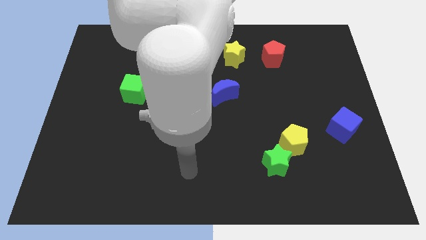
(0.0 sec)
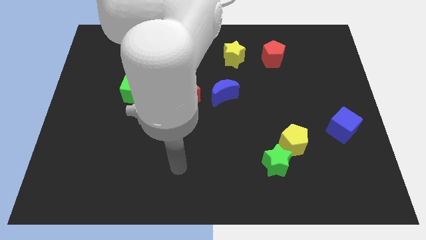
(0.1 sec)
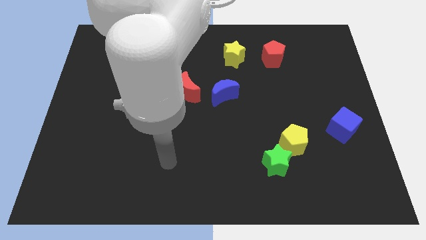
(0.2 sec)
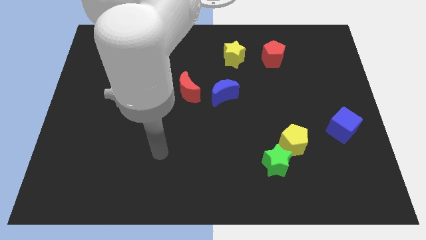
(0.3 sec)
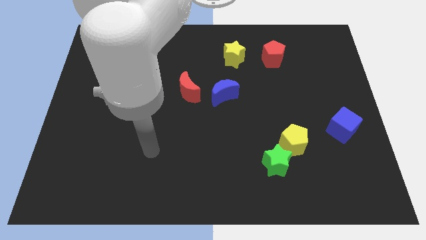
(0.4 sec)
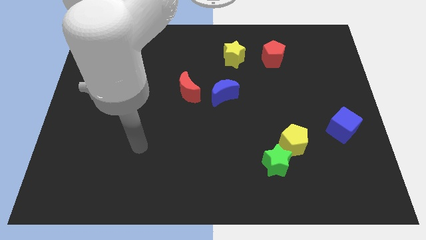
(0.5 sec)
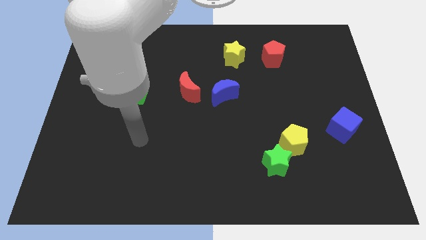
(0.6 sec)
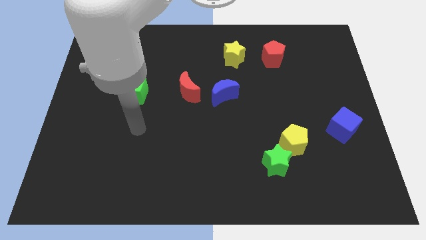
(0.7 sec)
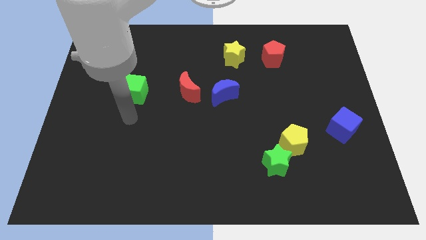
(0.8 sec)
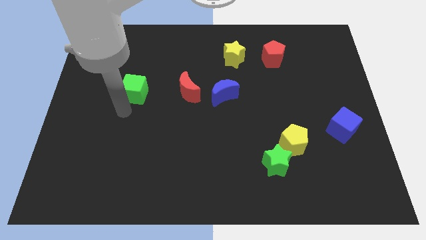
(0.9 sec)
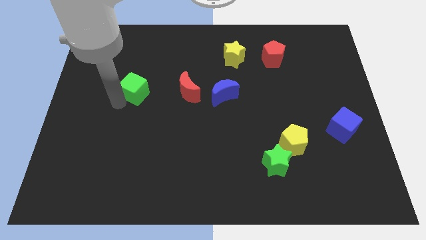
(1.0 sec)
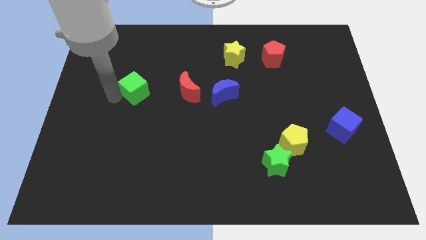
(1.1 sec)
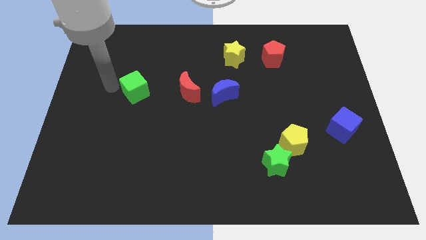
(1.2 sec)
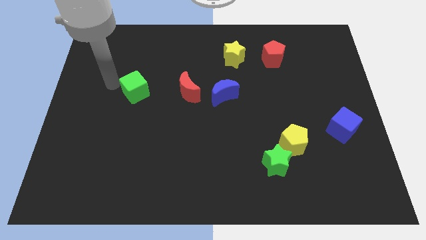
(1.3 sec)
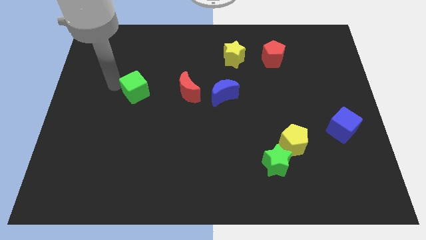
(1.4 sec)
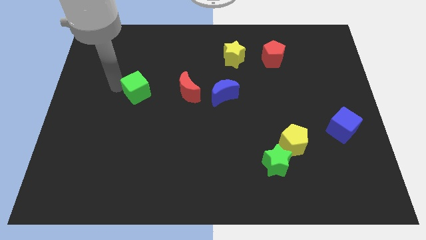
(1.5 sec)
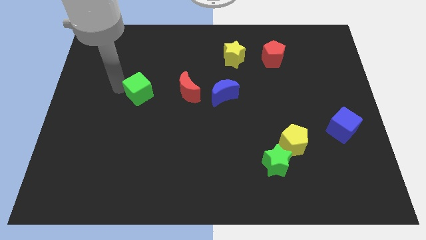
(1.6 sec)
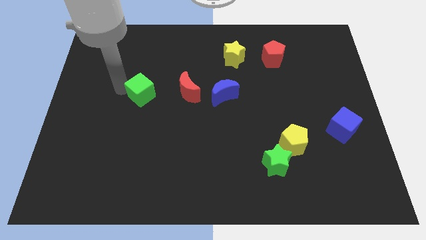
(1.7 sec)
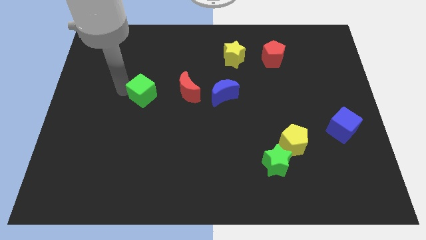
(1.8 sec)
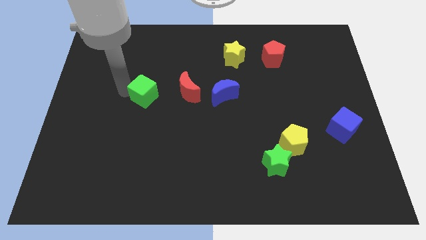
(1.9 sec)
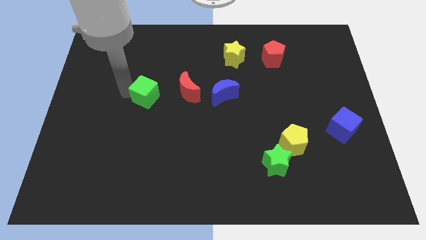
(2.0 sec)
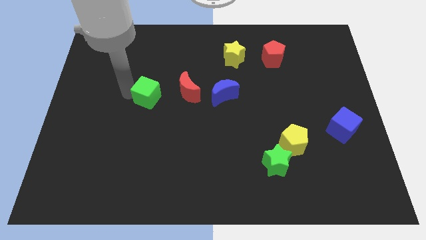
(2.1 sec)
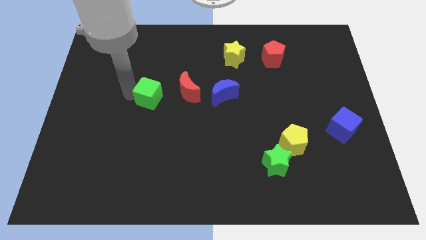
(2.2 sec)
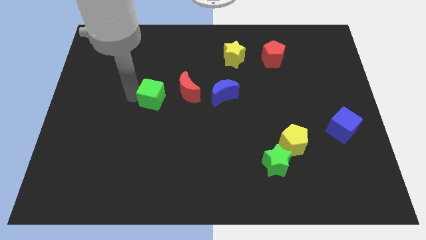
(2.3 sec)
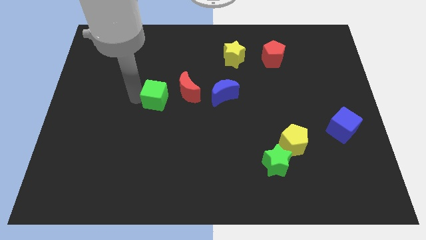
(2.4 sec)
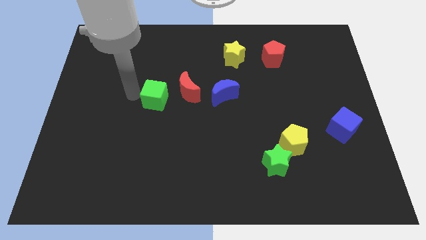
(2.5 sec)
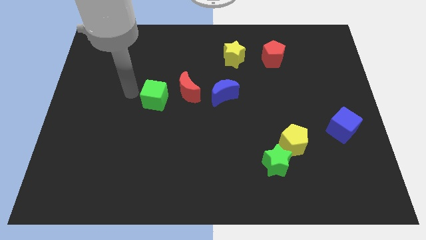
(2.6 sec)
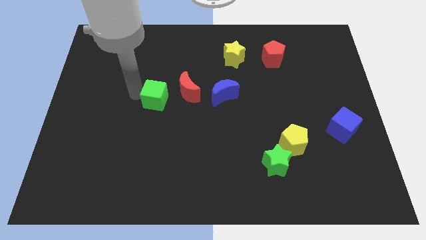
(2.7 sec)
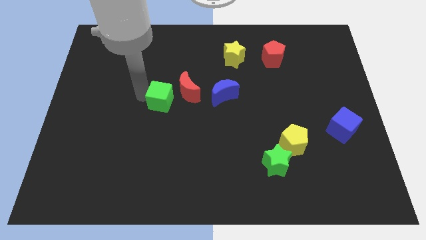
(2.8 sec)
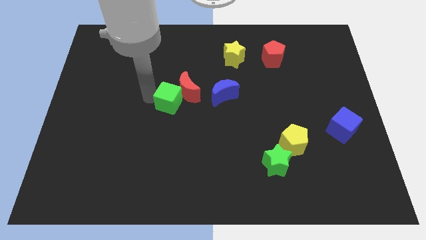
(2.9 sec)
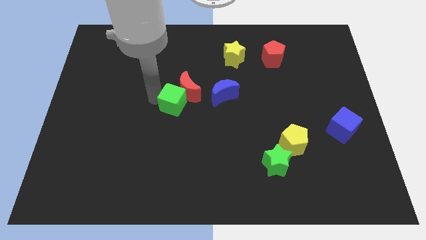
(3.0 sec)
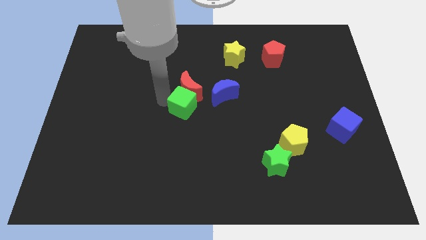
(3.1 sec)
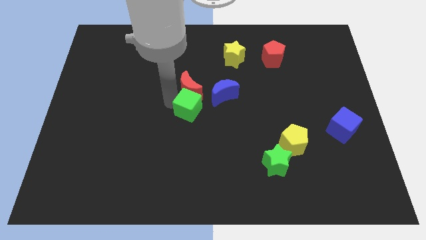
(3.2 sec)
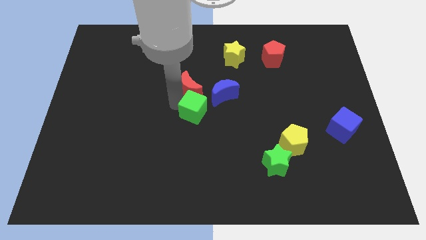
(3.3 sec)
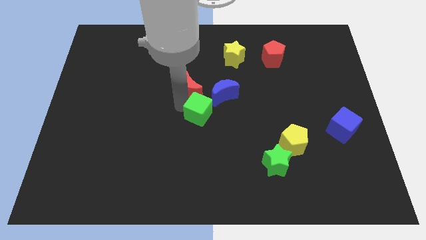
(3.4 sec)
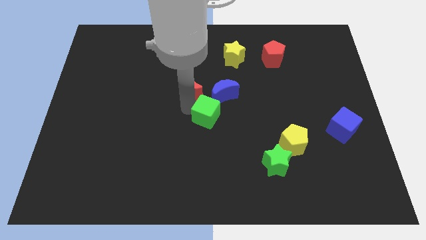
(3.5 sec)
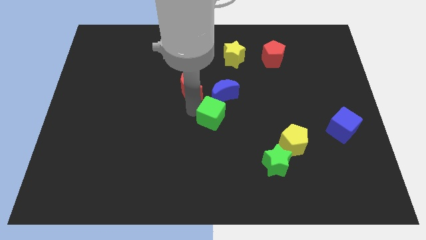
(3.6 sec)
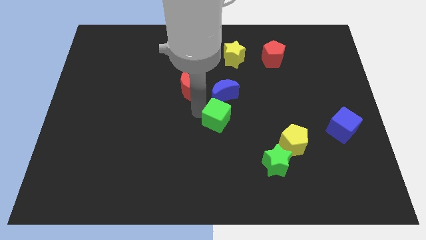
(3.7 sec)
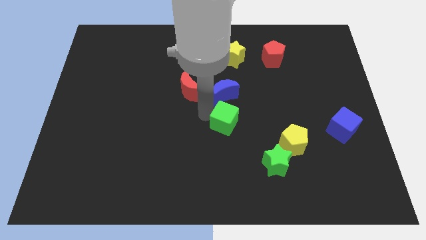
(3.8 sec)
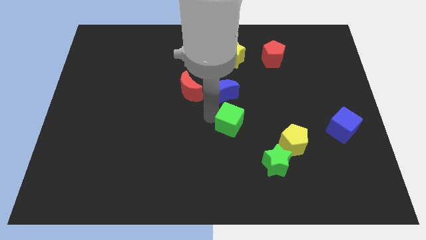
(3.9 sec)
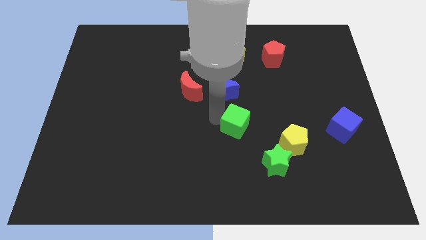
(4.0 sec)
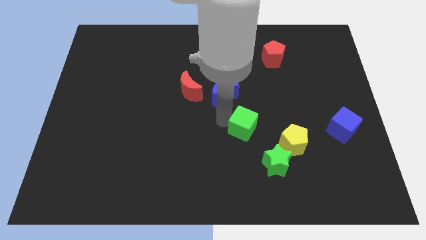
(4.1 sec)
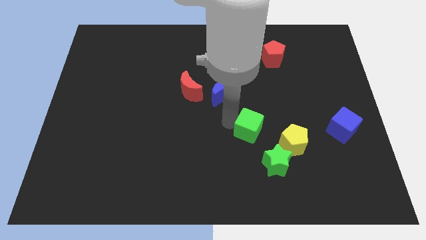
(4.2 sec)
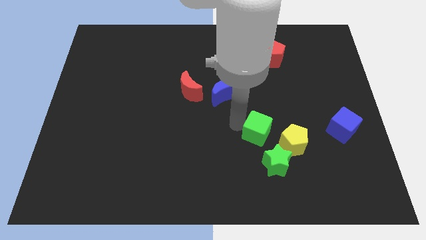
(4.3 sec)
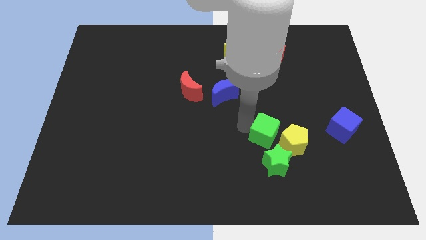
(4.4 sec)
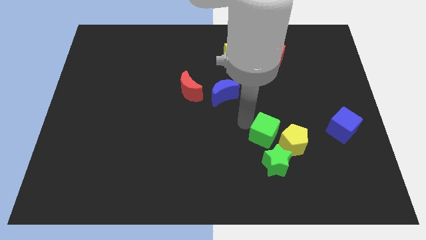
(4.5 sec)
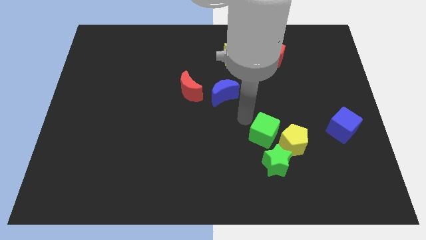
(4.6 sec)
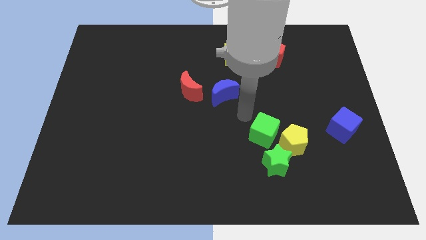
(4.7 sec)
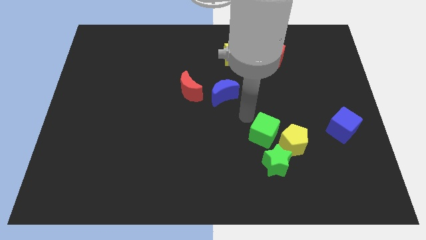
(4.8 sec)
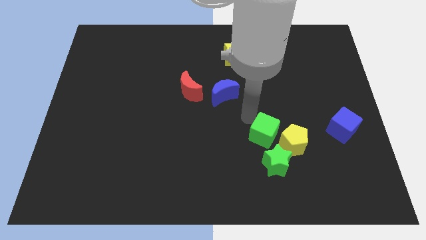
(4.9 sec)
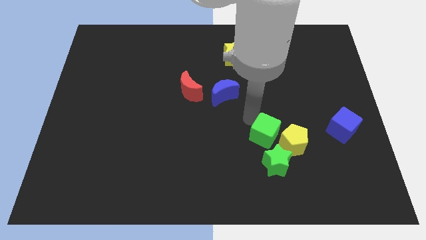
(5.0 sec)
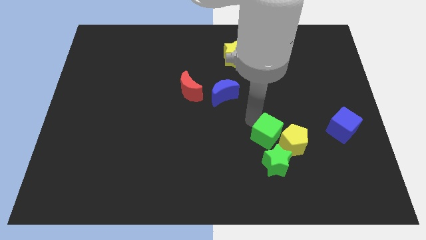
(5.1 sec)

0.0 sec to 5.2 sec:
slide the green cube towards the yellow pentagon

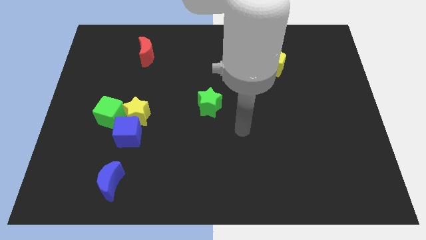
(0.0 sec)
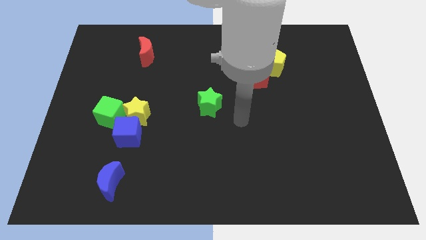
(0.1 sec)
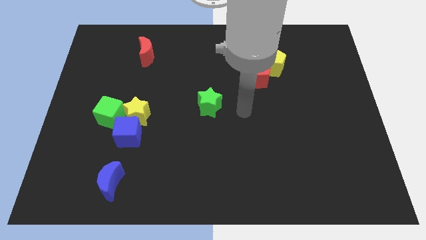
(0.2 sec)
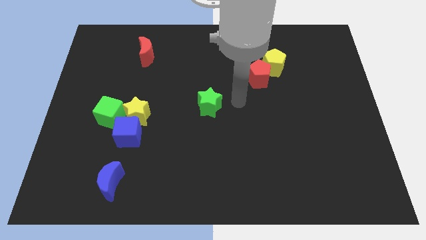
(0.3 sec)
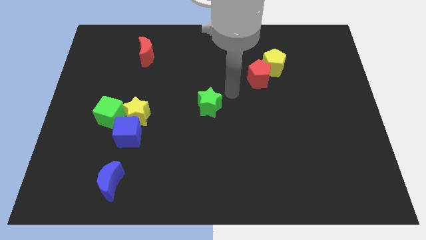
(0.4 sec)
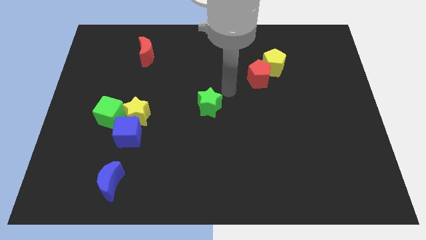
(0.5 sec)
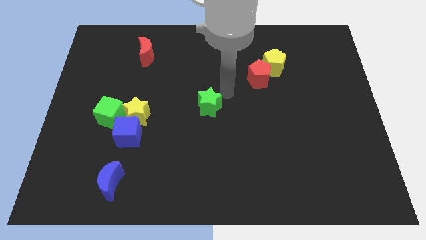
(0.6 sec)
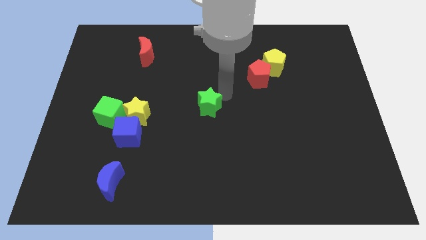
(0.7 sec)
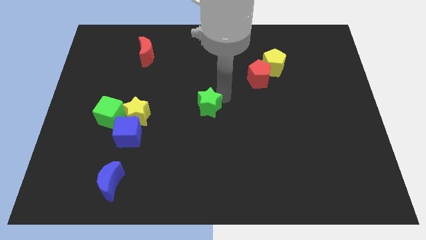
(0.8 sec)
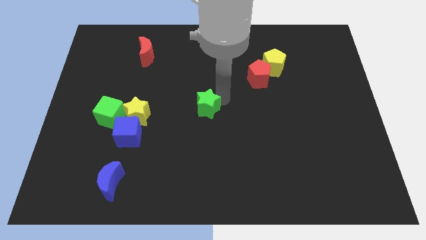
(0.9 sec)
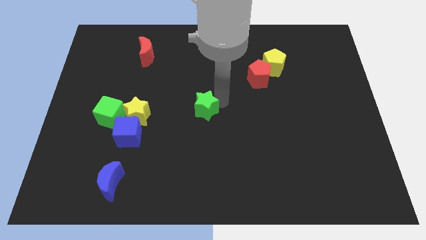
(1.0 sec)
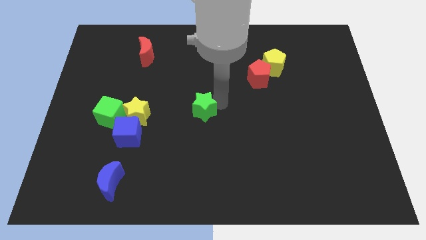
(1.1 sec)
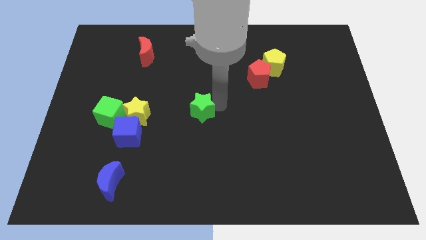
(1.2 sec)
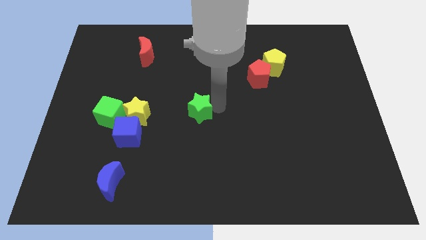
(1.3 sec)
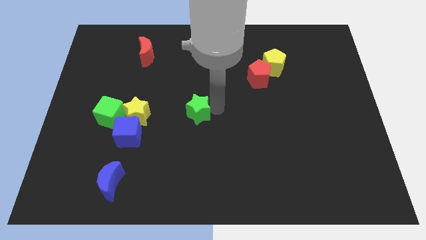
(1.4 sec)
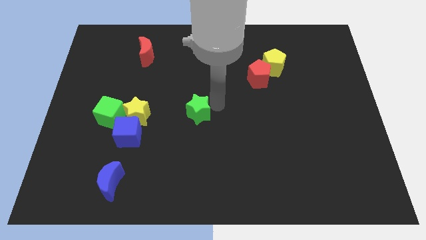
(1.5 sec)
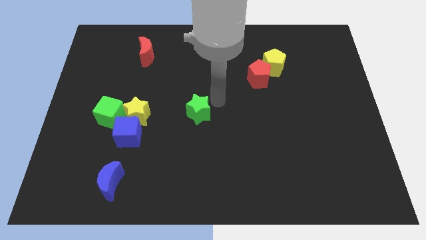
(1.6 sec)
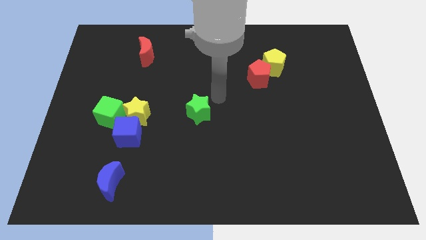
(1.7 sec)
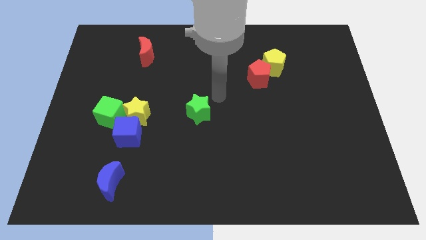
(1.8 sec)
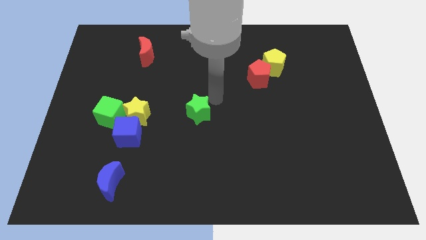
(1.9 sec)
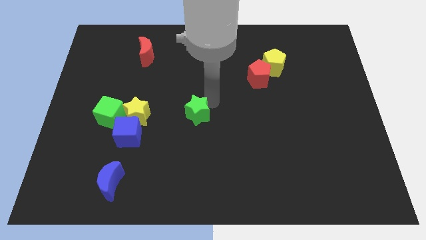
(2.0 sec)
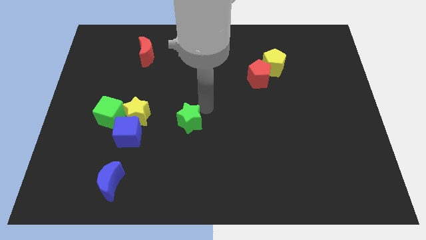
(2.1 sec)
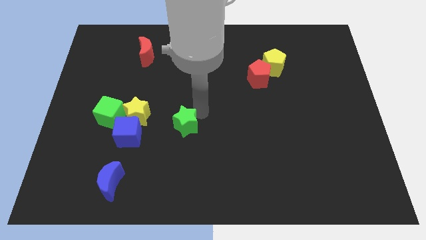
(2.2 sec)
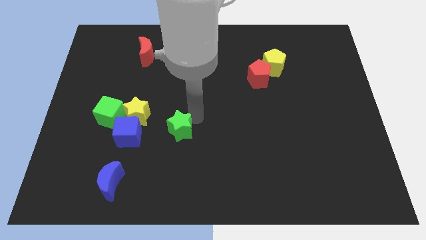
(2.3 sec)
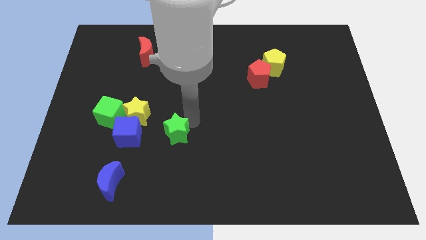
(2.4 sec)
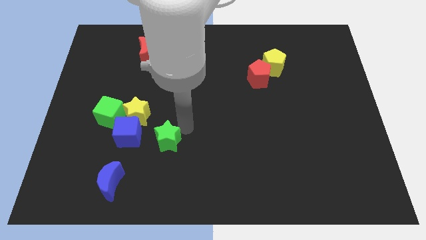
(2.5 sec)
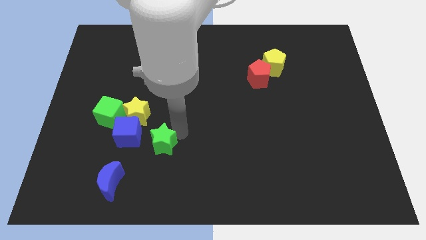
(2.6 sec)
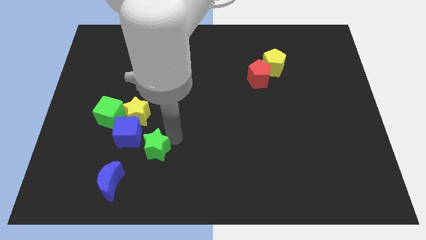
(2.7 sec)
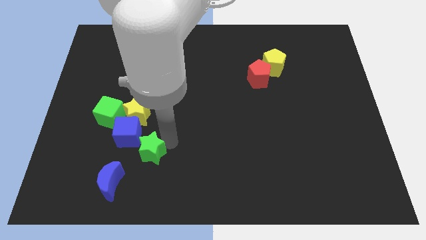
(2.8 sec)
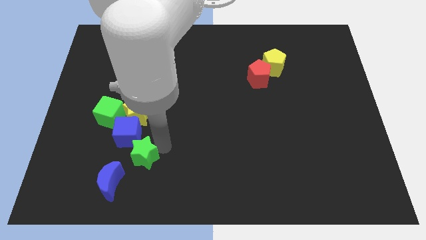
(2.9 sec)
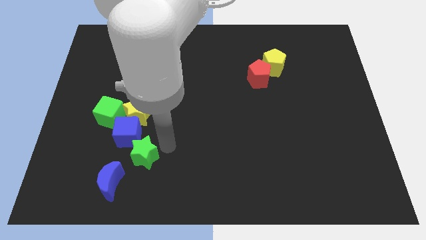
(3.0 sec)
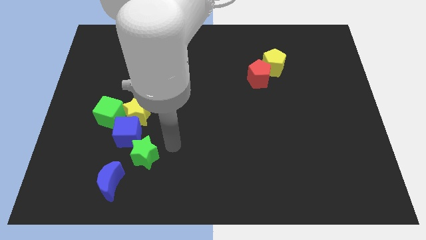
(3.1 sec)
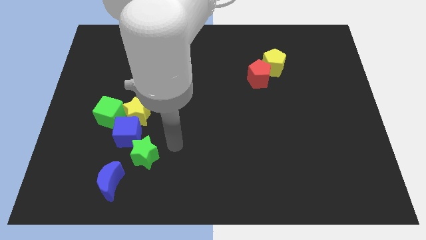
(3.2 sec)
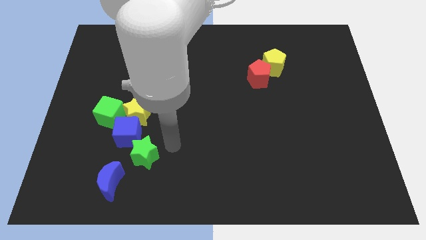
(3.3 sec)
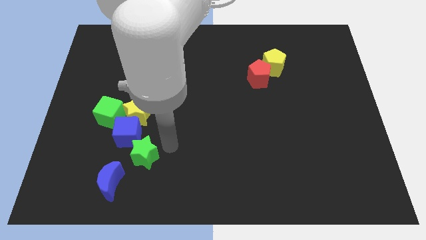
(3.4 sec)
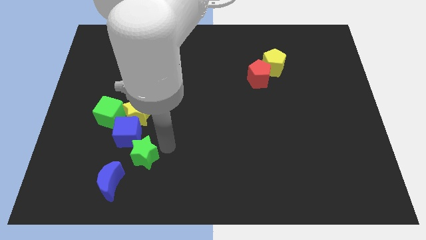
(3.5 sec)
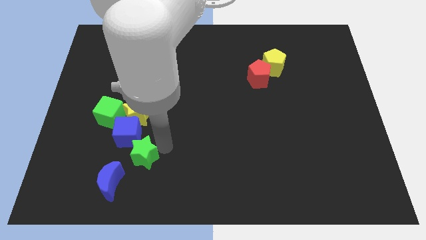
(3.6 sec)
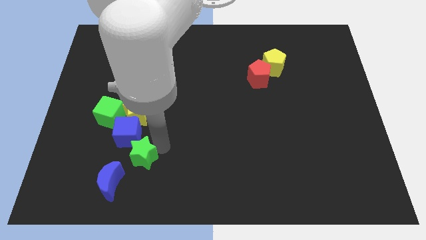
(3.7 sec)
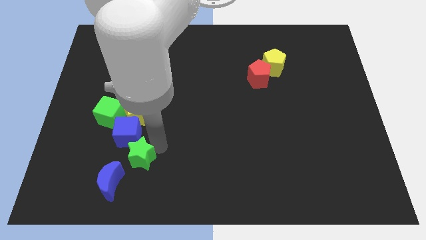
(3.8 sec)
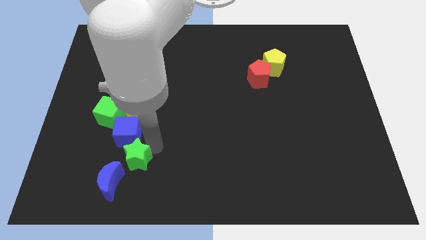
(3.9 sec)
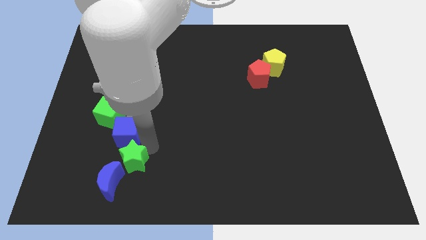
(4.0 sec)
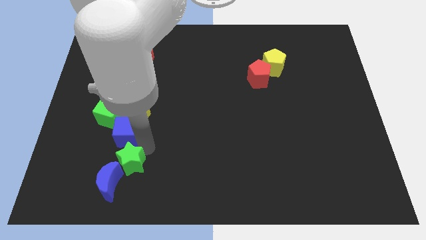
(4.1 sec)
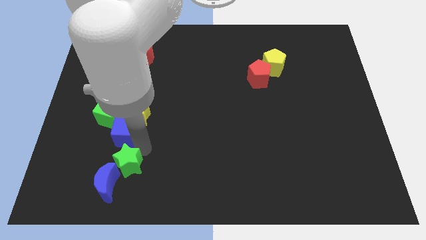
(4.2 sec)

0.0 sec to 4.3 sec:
slide the green star to the blue moon
